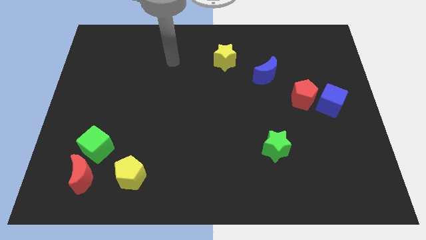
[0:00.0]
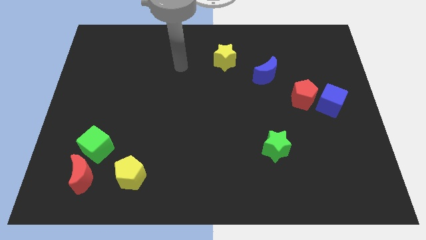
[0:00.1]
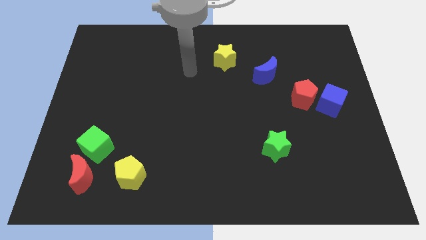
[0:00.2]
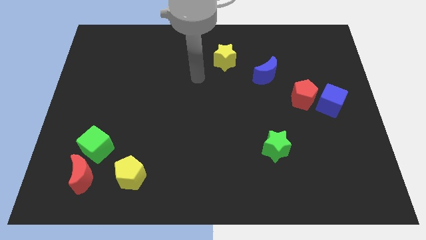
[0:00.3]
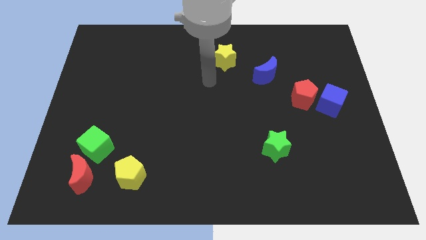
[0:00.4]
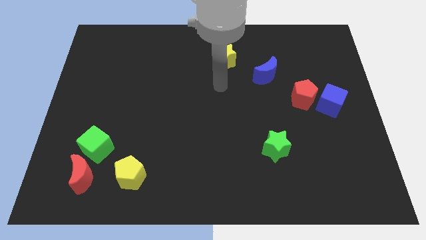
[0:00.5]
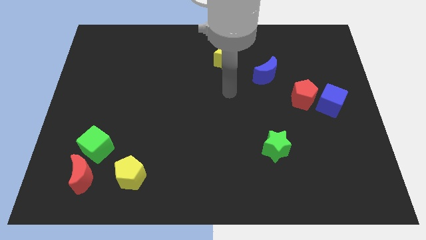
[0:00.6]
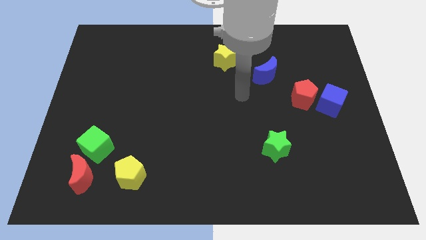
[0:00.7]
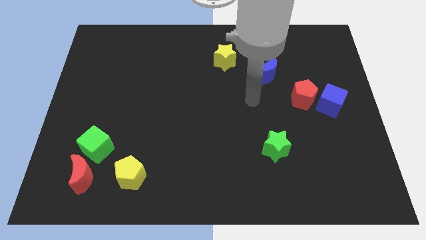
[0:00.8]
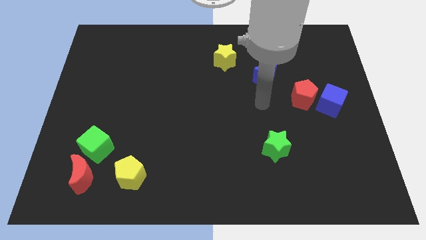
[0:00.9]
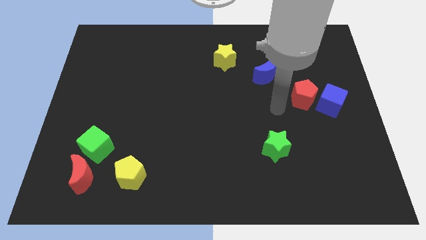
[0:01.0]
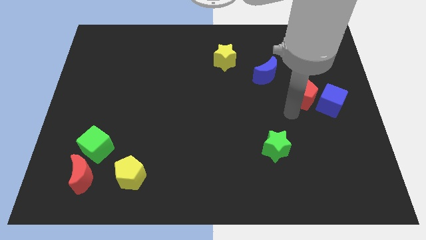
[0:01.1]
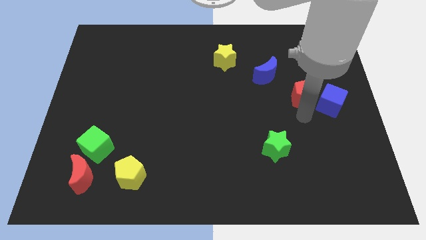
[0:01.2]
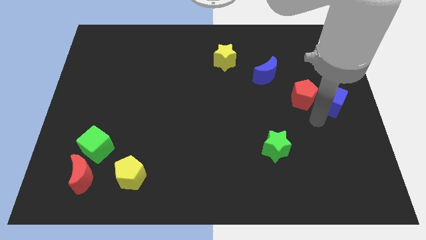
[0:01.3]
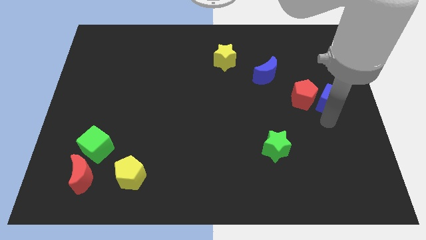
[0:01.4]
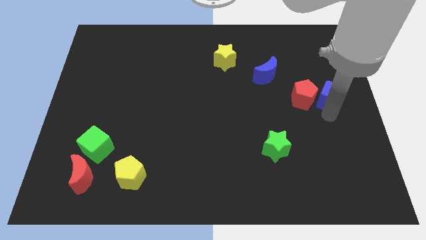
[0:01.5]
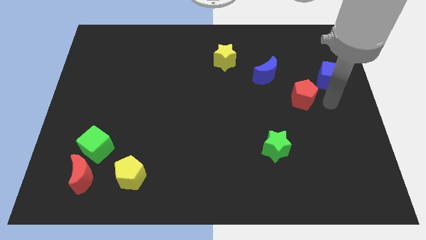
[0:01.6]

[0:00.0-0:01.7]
move the red pentagon away from the blue cube

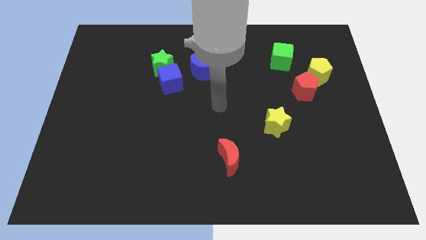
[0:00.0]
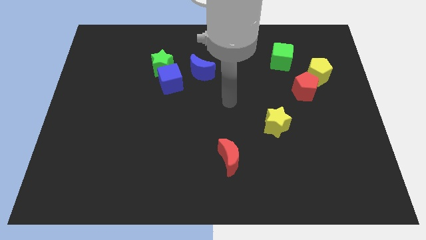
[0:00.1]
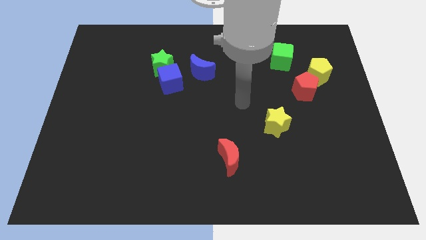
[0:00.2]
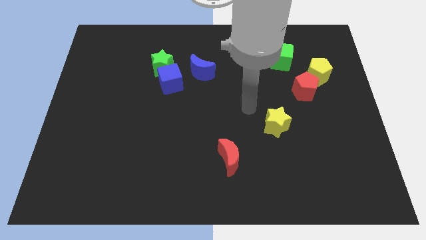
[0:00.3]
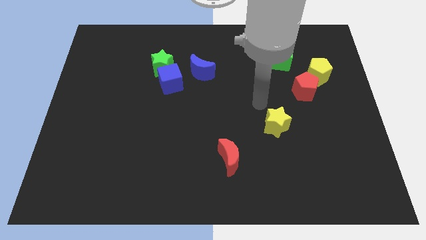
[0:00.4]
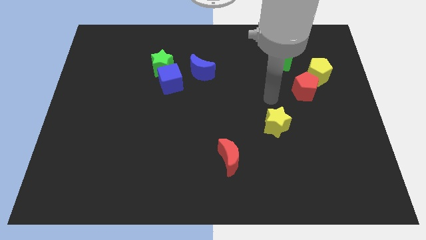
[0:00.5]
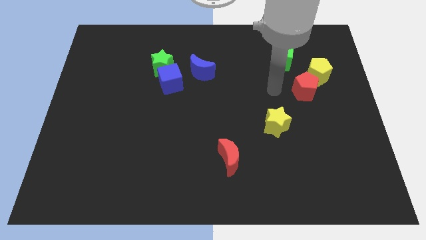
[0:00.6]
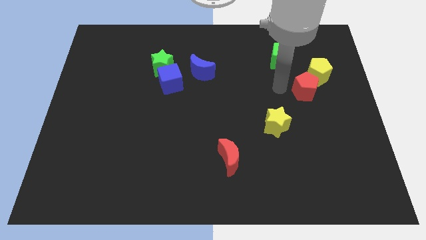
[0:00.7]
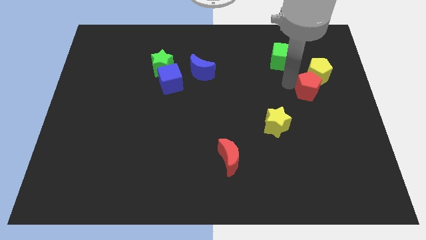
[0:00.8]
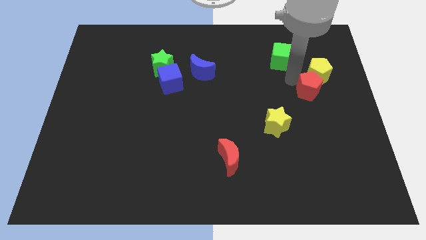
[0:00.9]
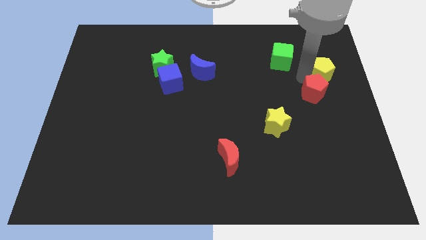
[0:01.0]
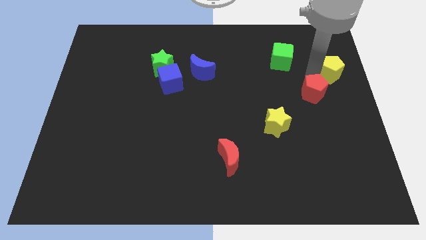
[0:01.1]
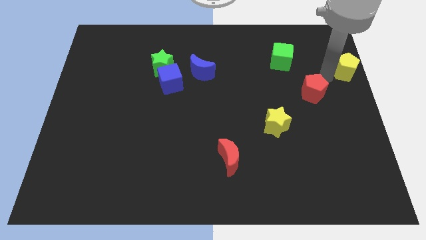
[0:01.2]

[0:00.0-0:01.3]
move the red pentagon away from the yellow pentagon

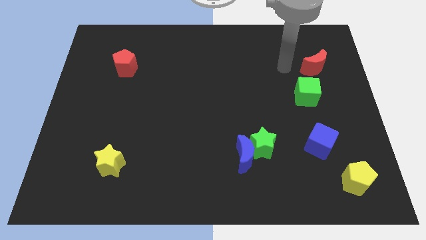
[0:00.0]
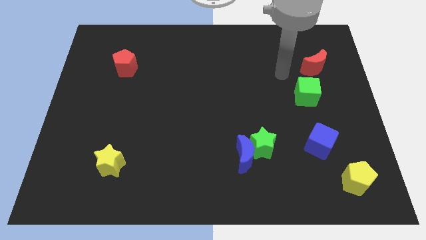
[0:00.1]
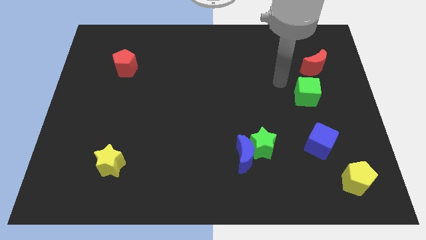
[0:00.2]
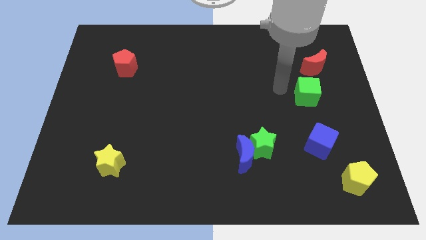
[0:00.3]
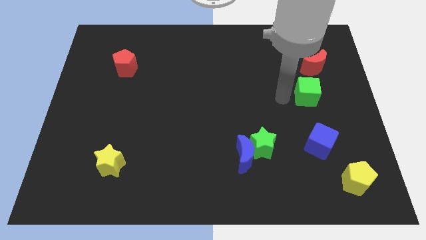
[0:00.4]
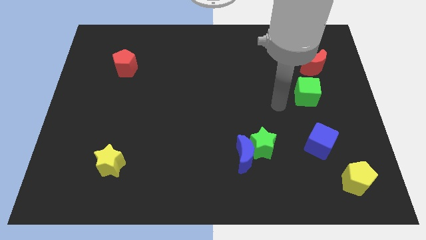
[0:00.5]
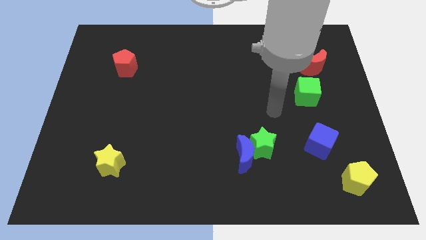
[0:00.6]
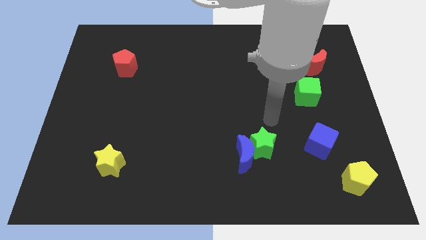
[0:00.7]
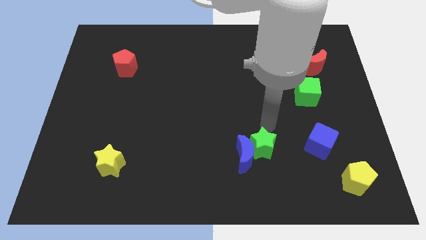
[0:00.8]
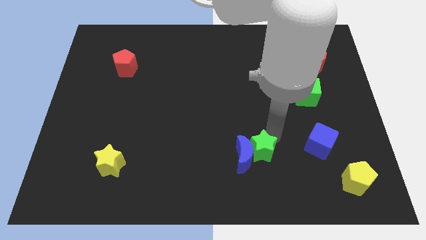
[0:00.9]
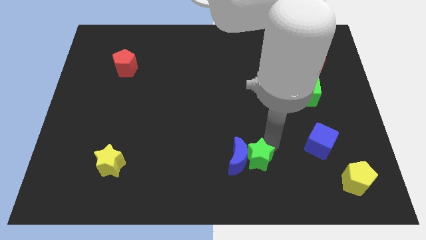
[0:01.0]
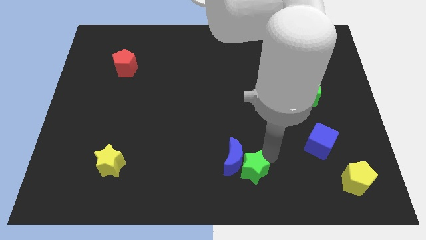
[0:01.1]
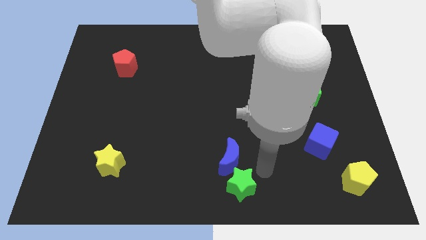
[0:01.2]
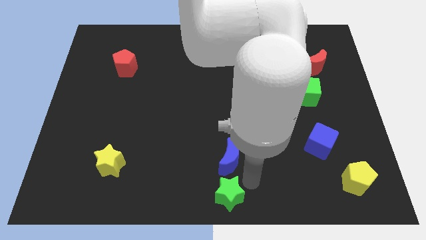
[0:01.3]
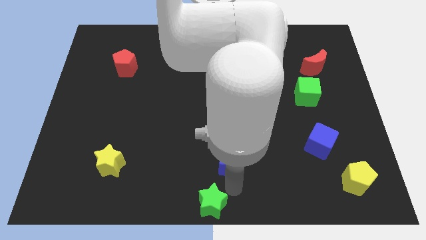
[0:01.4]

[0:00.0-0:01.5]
pull the blue moon apart from the green star

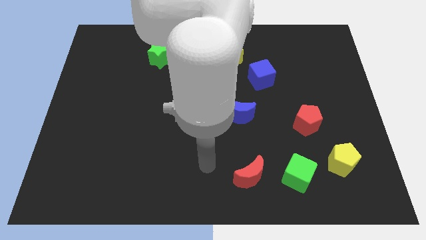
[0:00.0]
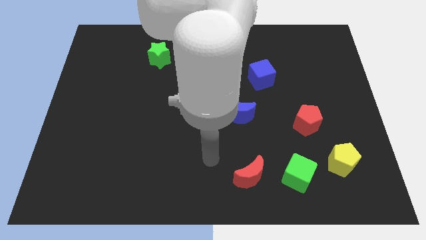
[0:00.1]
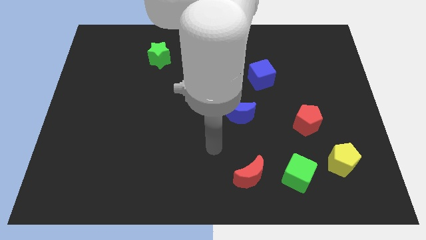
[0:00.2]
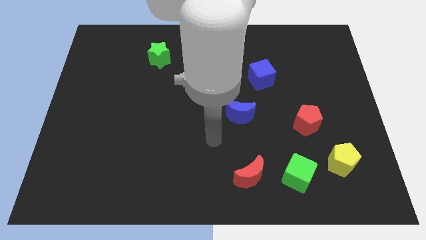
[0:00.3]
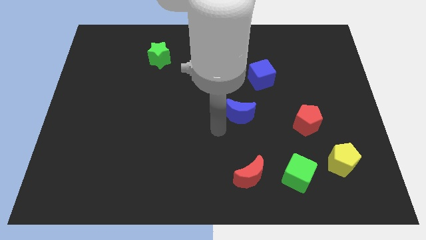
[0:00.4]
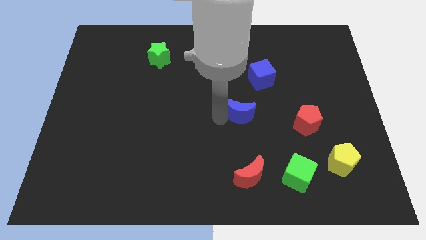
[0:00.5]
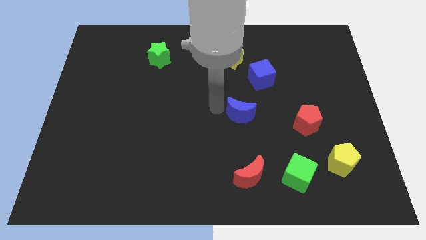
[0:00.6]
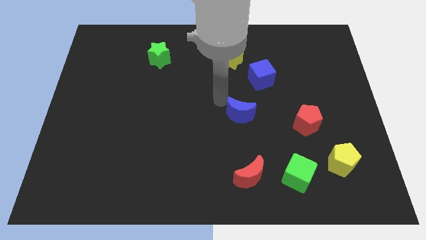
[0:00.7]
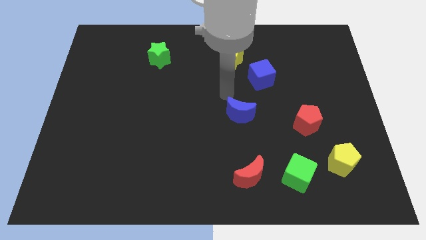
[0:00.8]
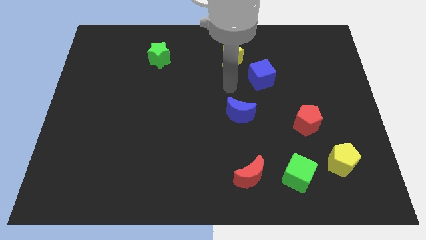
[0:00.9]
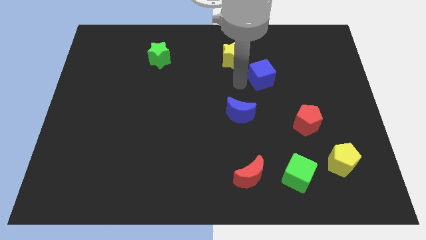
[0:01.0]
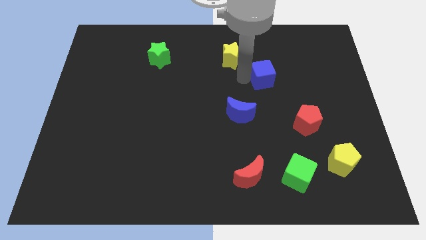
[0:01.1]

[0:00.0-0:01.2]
move the blue cube away from the yellow star

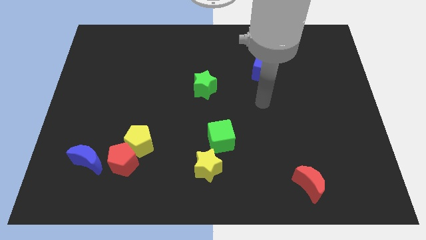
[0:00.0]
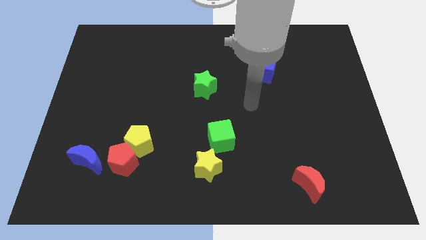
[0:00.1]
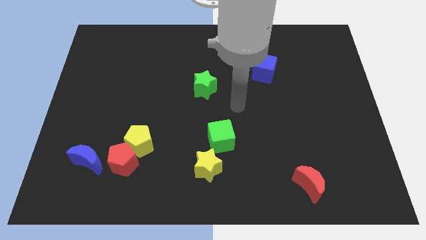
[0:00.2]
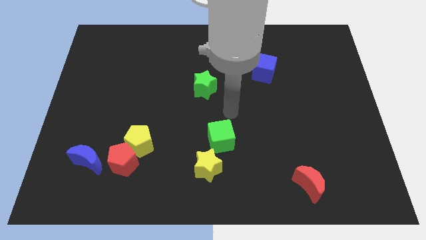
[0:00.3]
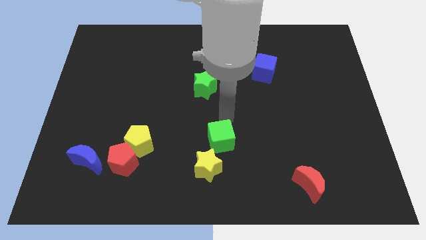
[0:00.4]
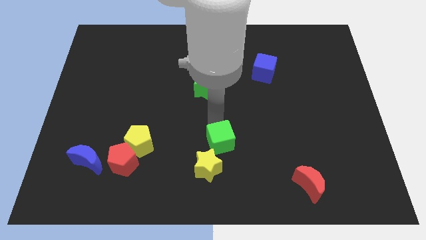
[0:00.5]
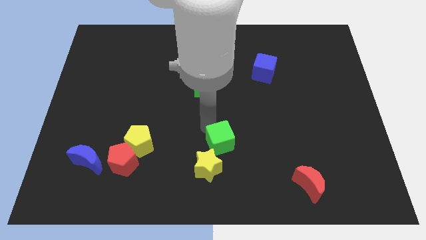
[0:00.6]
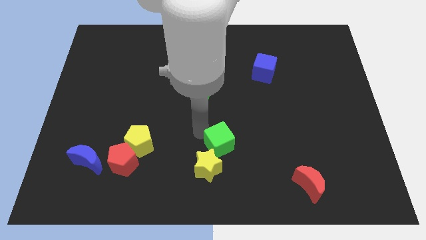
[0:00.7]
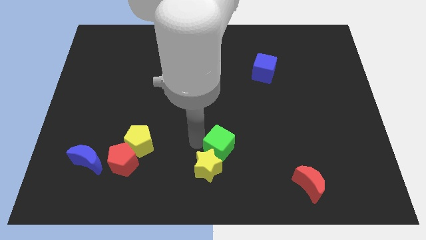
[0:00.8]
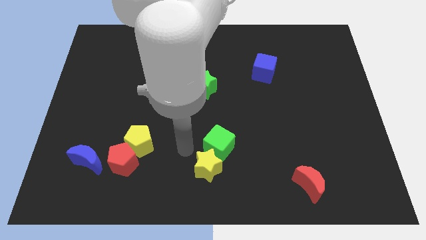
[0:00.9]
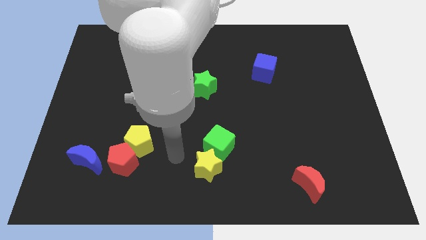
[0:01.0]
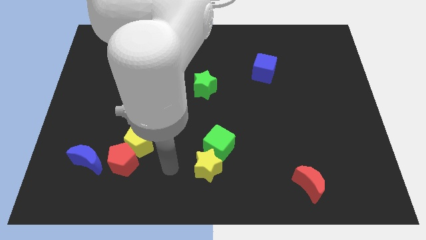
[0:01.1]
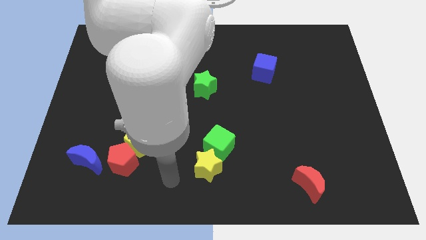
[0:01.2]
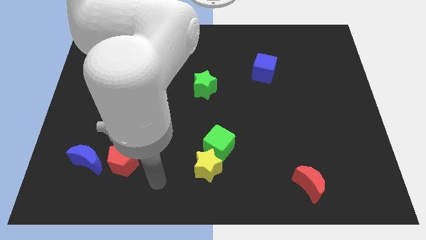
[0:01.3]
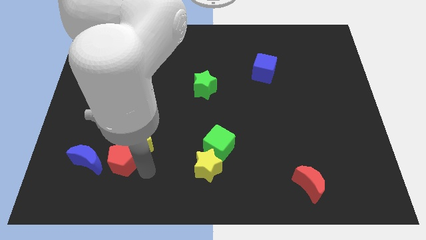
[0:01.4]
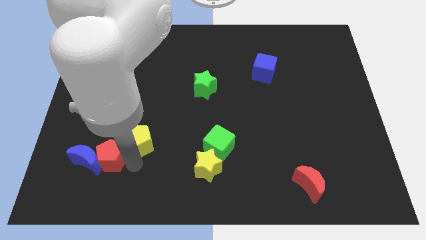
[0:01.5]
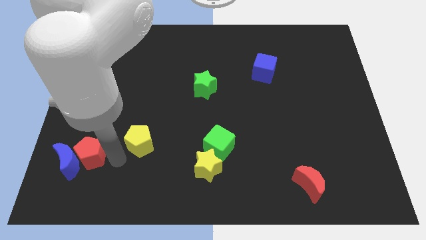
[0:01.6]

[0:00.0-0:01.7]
pull the yellow pentagon apart from the red pentagon

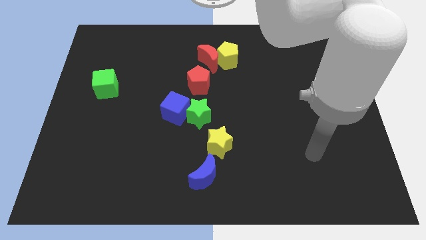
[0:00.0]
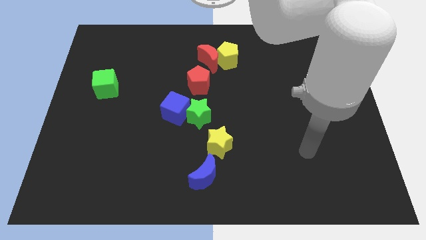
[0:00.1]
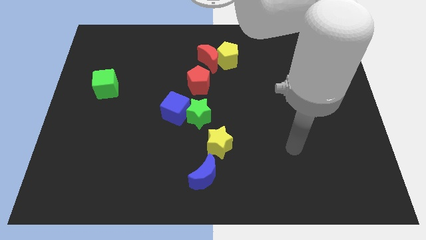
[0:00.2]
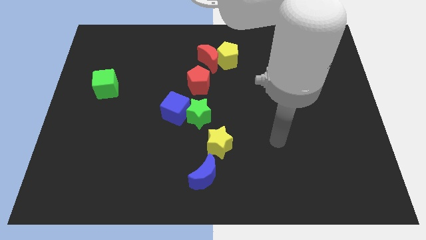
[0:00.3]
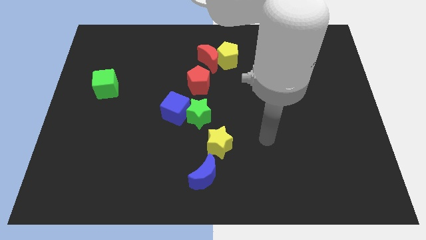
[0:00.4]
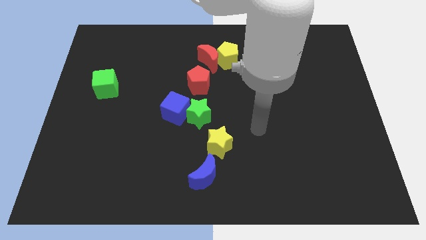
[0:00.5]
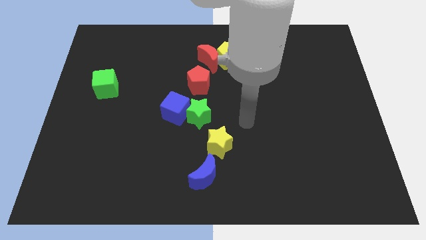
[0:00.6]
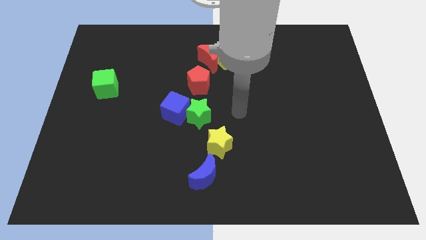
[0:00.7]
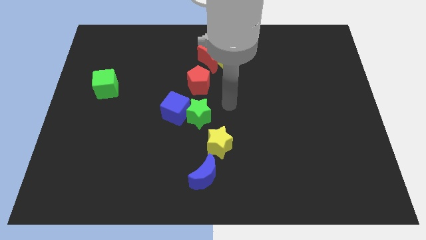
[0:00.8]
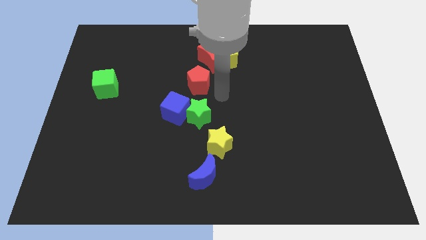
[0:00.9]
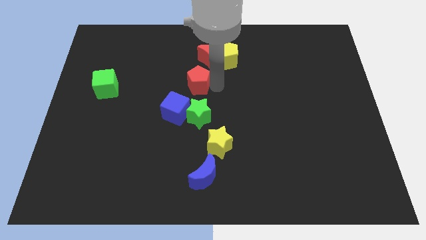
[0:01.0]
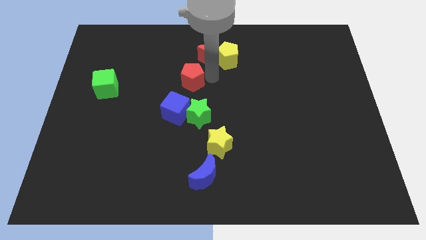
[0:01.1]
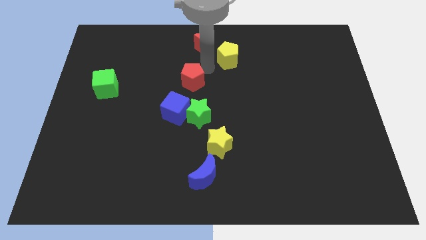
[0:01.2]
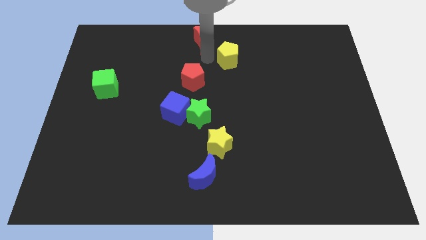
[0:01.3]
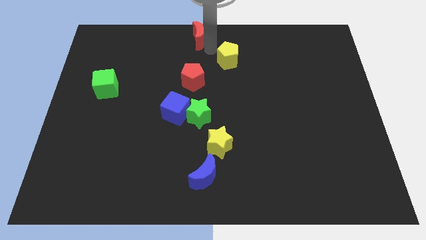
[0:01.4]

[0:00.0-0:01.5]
separate the yellow pentagon from the red moon

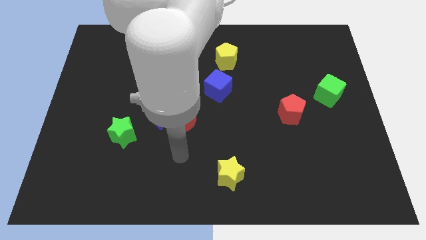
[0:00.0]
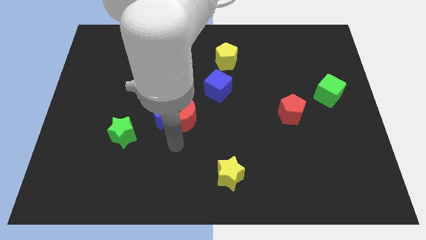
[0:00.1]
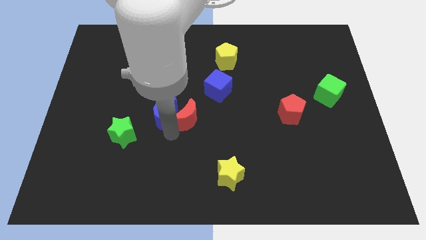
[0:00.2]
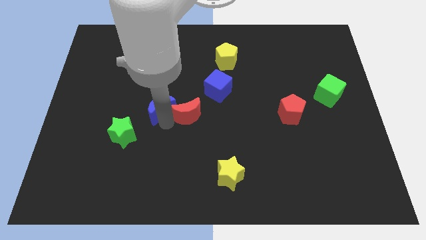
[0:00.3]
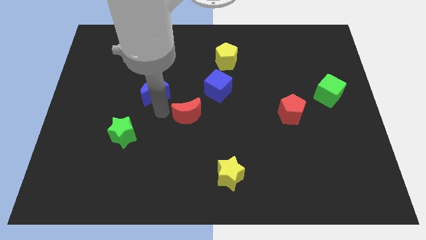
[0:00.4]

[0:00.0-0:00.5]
separate the red moon from the blue moon
